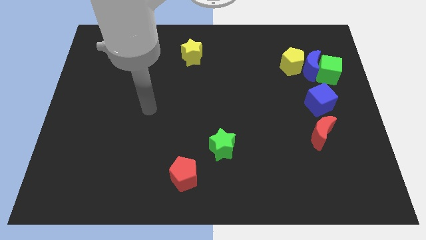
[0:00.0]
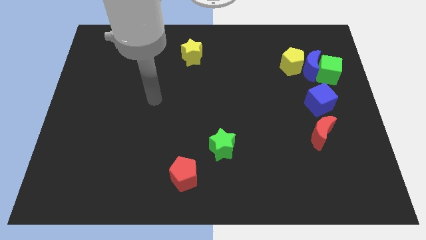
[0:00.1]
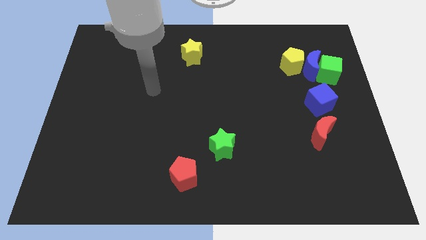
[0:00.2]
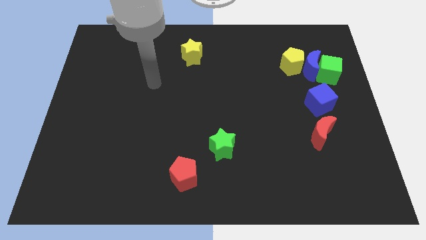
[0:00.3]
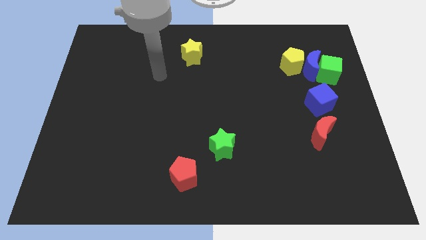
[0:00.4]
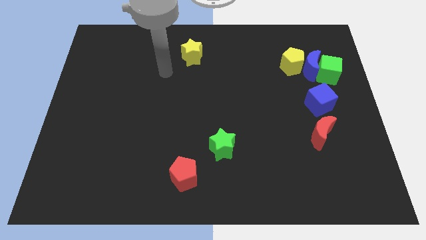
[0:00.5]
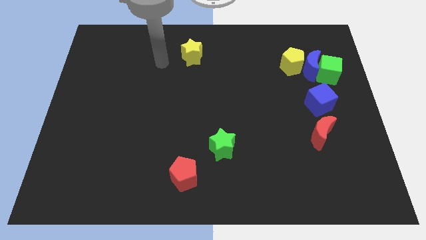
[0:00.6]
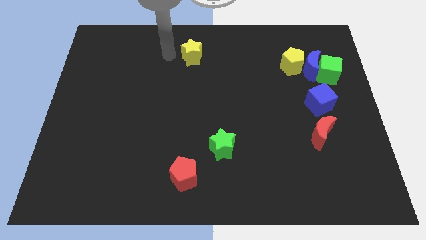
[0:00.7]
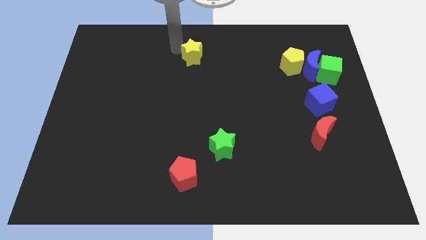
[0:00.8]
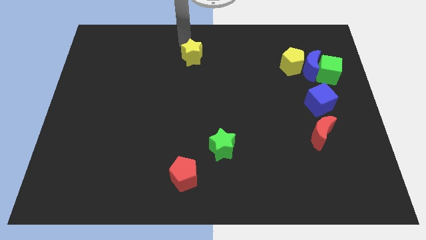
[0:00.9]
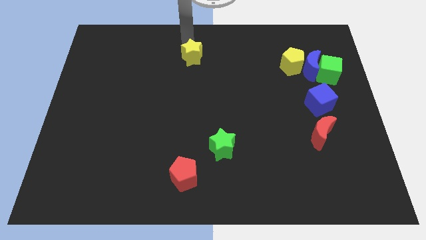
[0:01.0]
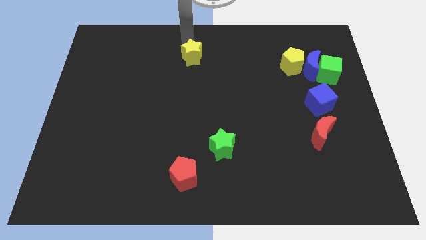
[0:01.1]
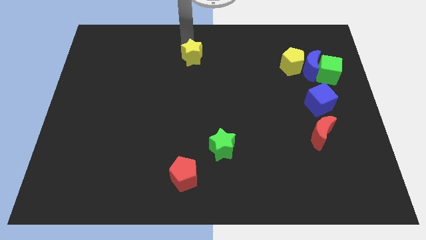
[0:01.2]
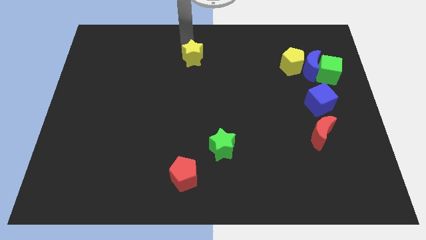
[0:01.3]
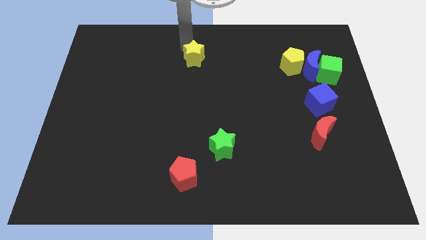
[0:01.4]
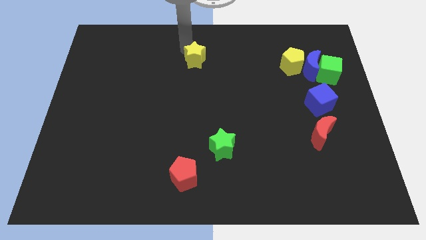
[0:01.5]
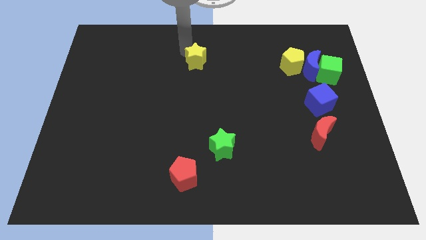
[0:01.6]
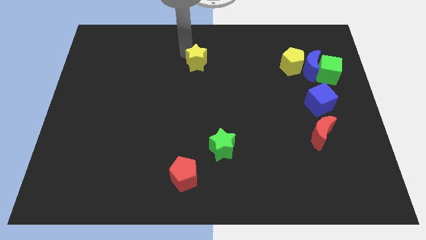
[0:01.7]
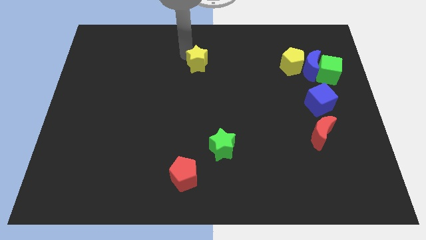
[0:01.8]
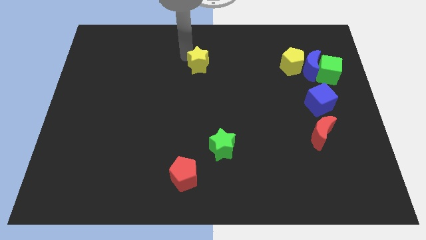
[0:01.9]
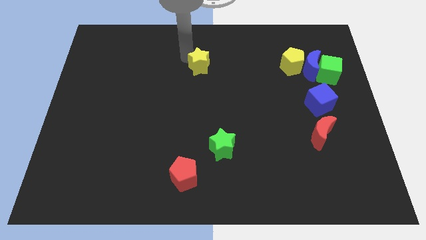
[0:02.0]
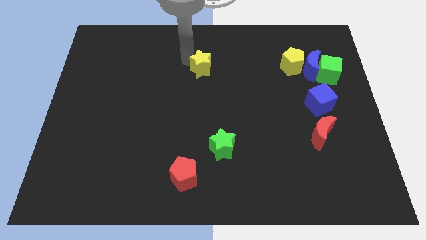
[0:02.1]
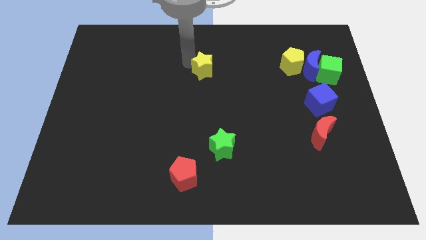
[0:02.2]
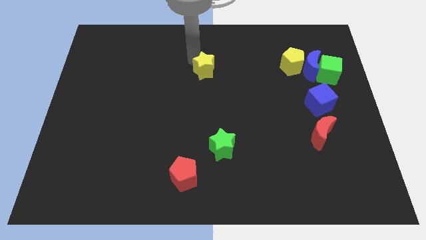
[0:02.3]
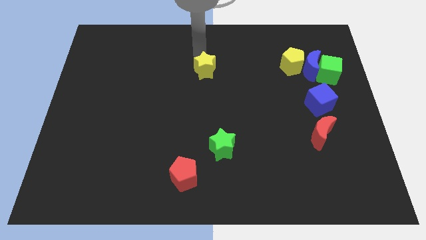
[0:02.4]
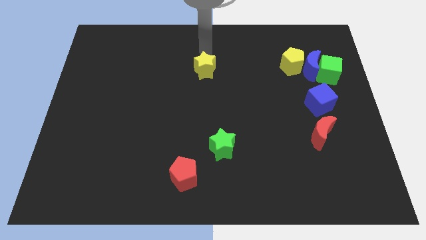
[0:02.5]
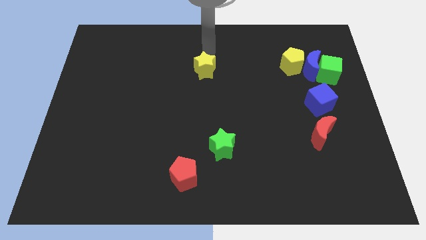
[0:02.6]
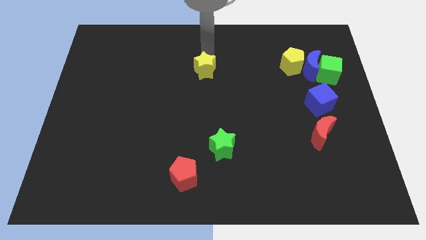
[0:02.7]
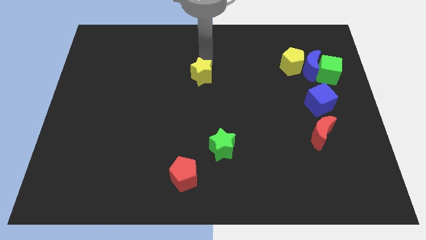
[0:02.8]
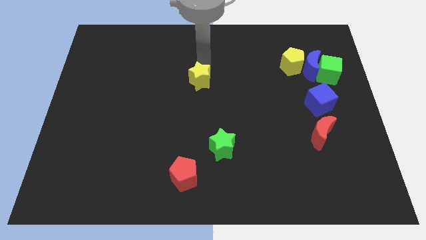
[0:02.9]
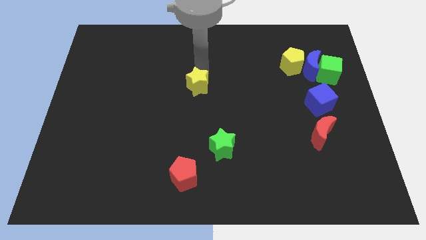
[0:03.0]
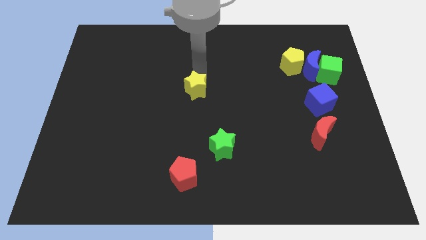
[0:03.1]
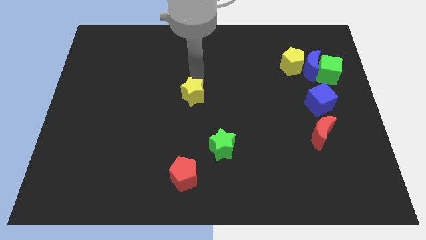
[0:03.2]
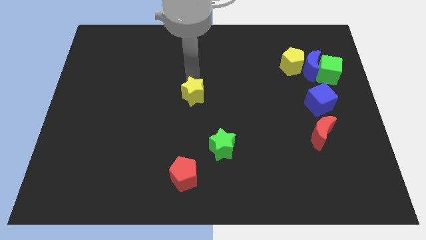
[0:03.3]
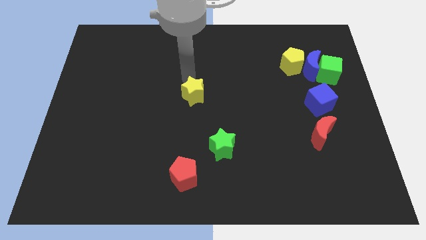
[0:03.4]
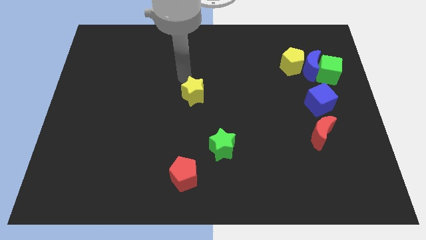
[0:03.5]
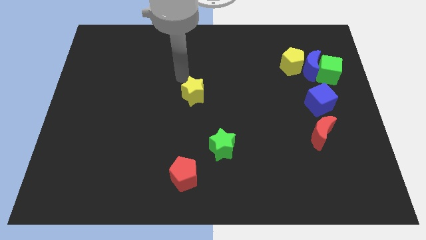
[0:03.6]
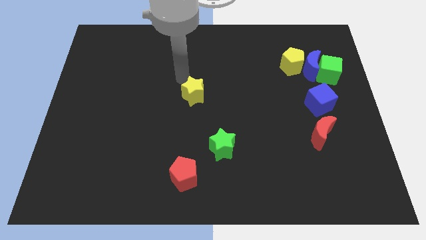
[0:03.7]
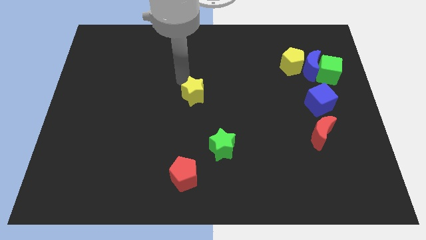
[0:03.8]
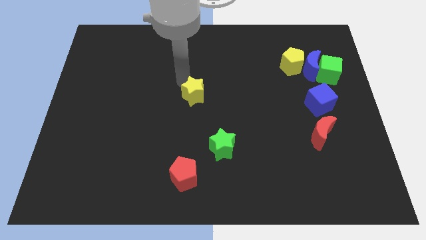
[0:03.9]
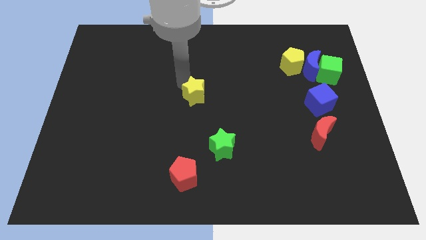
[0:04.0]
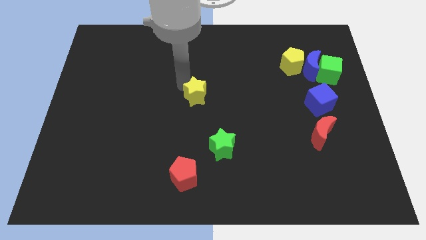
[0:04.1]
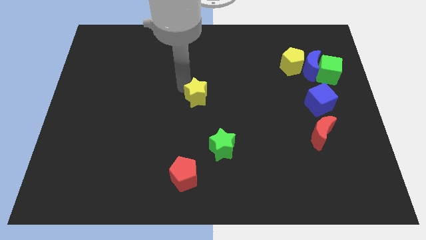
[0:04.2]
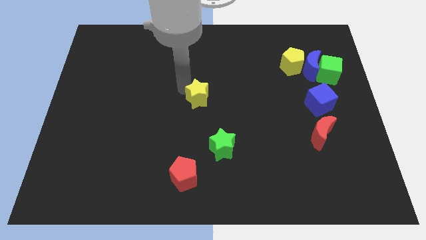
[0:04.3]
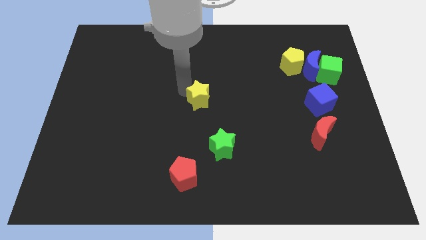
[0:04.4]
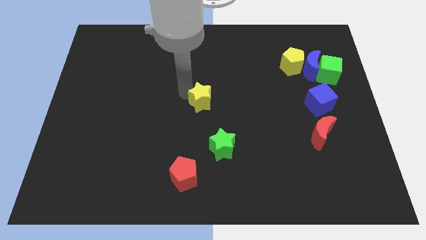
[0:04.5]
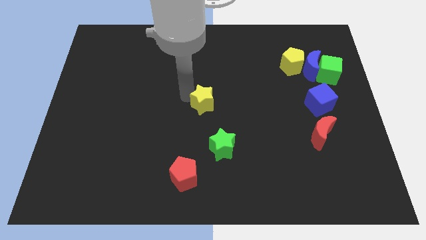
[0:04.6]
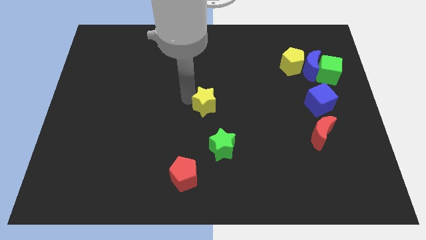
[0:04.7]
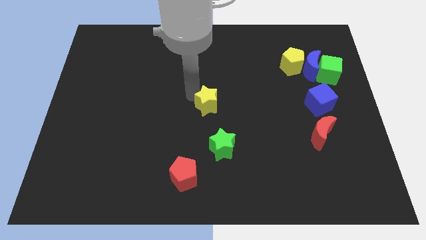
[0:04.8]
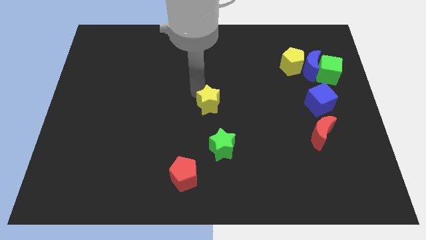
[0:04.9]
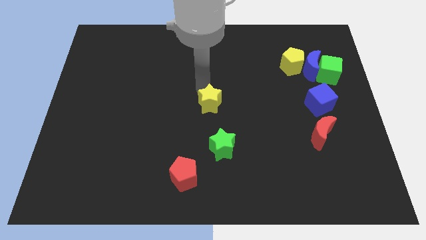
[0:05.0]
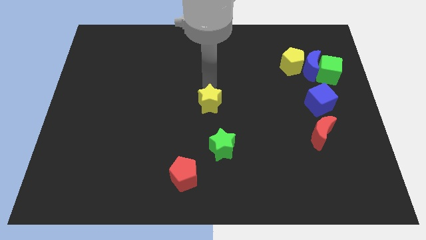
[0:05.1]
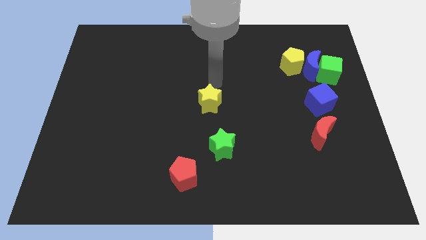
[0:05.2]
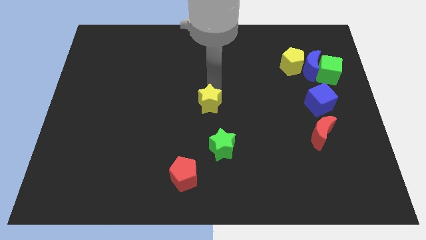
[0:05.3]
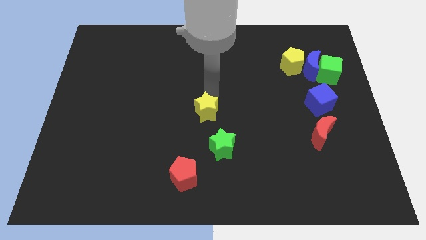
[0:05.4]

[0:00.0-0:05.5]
put the yellow star to the top left of the green star
